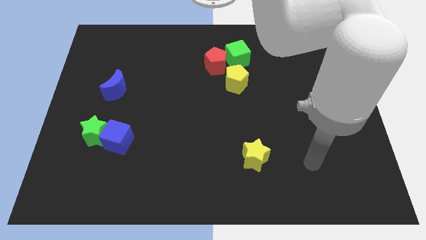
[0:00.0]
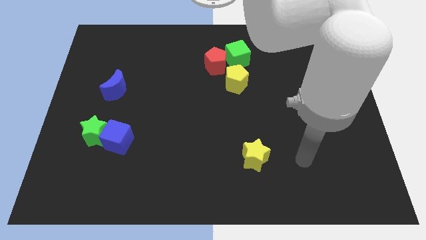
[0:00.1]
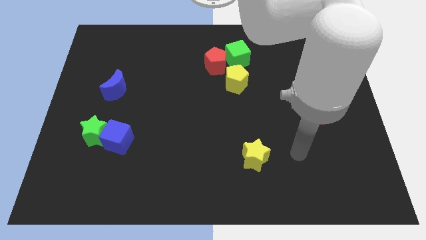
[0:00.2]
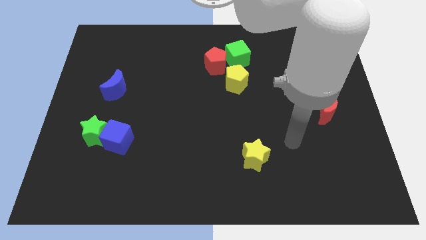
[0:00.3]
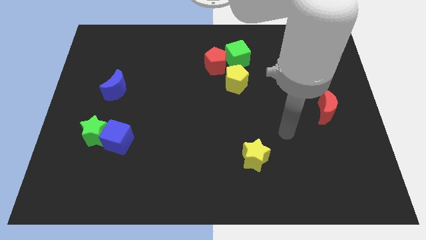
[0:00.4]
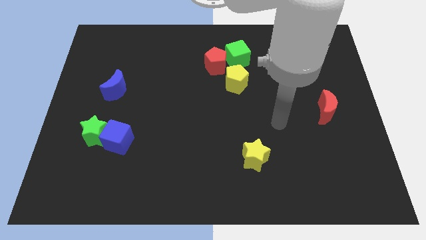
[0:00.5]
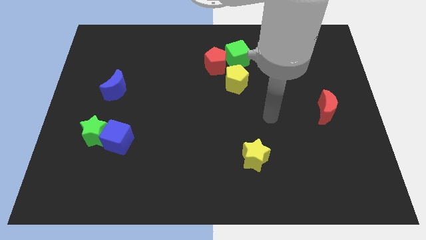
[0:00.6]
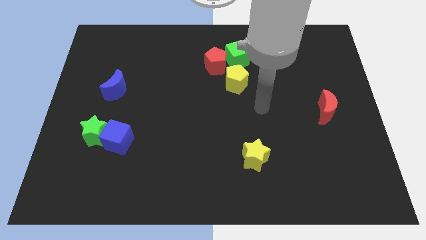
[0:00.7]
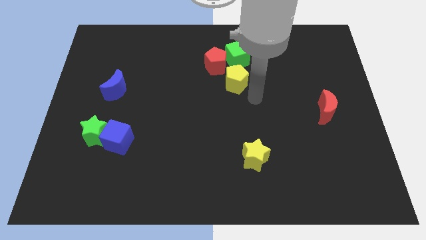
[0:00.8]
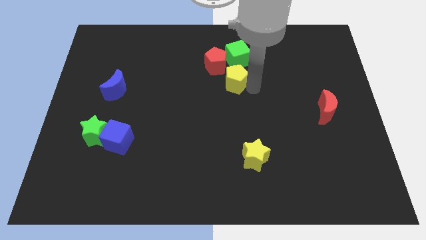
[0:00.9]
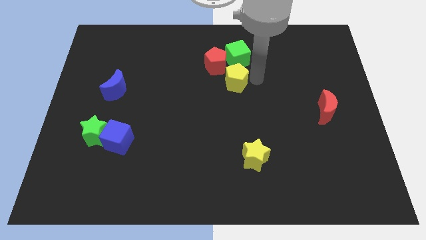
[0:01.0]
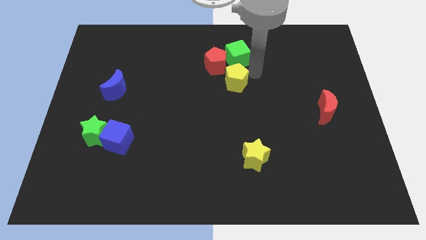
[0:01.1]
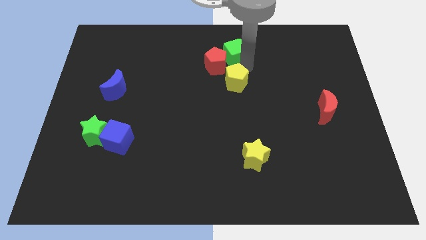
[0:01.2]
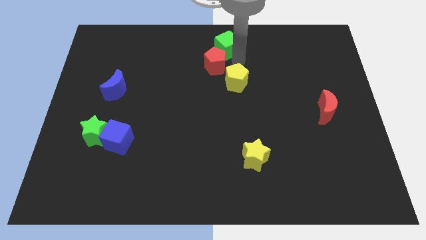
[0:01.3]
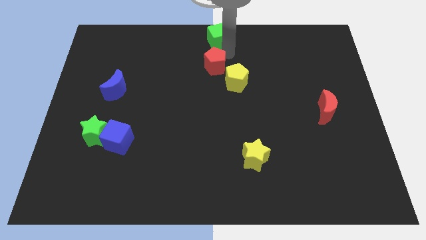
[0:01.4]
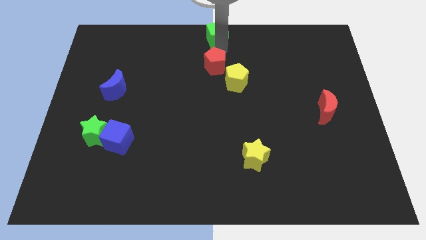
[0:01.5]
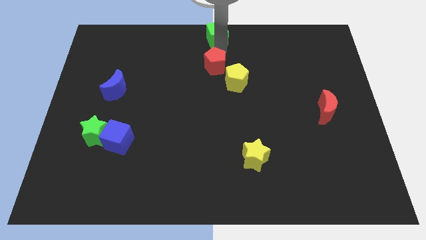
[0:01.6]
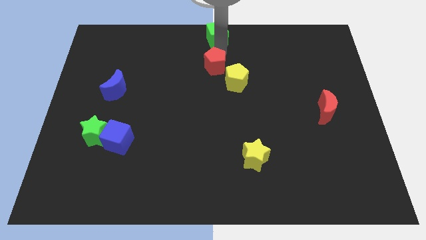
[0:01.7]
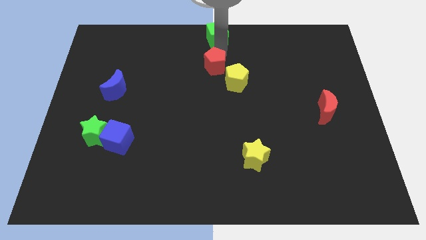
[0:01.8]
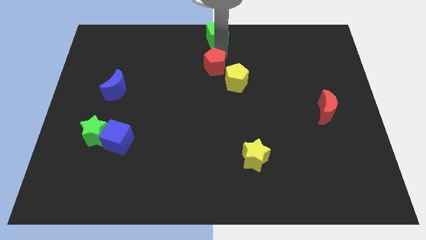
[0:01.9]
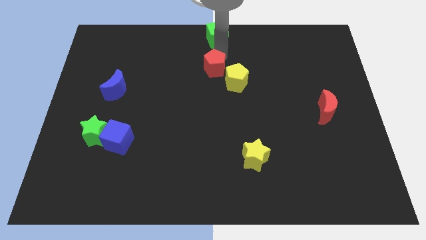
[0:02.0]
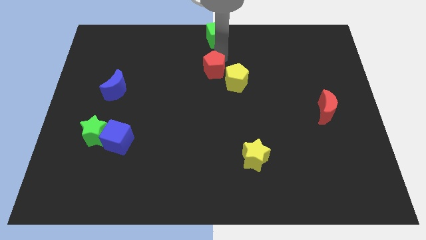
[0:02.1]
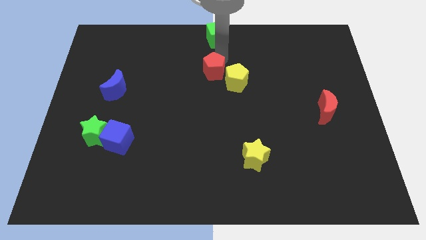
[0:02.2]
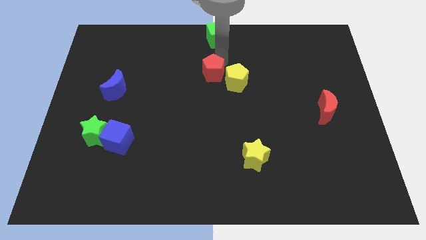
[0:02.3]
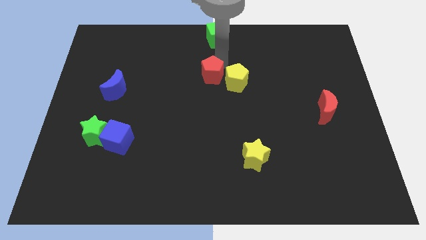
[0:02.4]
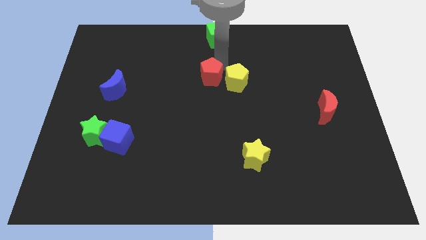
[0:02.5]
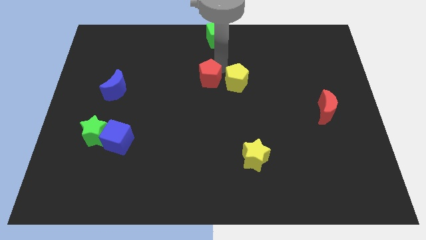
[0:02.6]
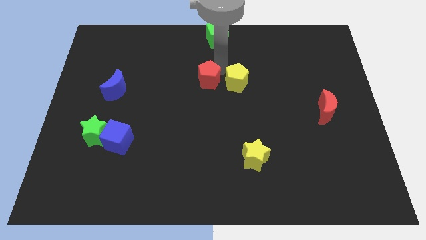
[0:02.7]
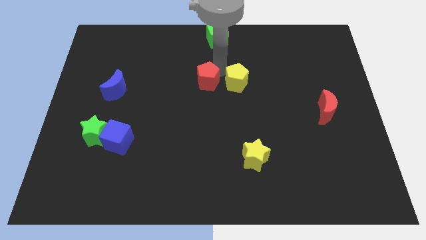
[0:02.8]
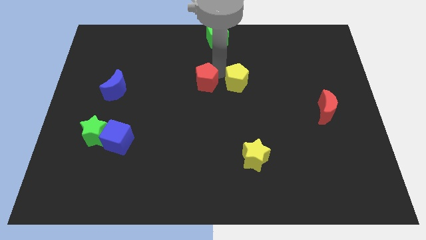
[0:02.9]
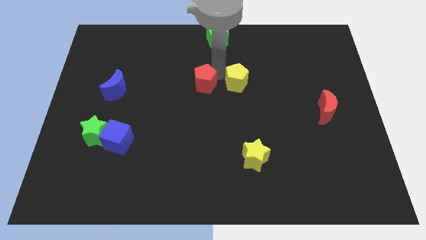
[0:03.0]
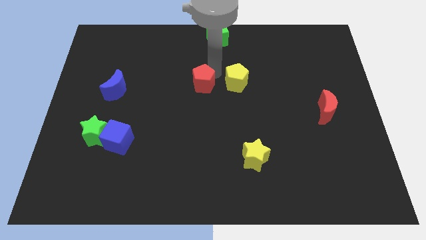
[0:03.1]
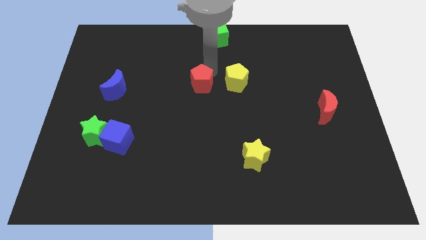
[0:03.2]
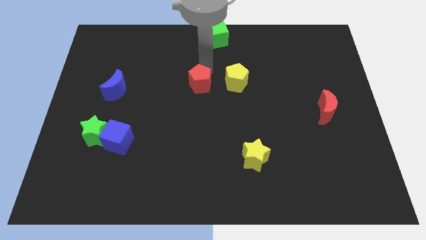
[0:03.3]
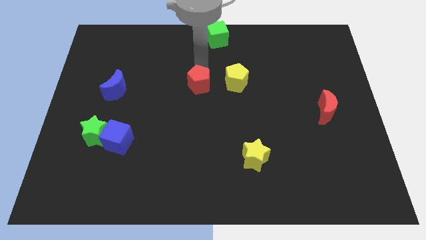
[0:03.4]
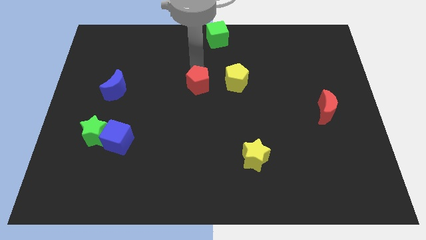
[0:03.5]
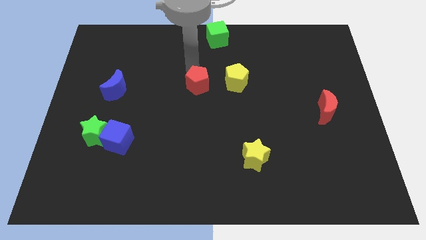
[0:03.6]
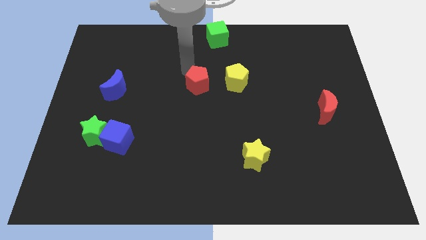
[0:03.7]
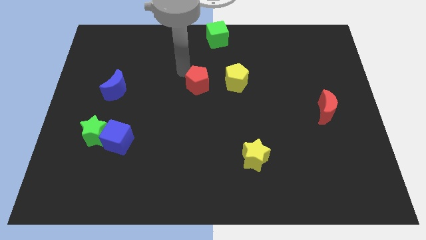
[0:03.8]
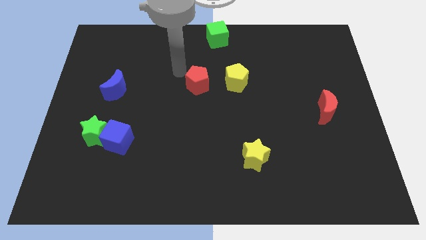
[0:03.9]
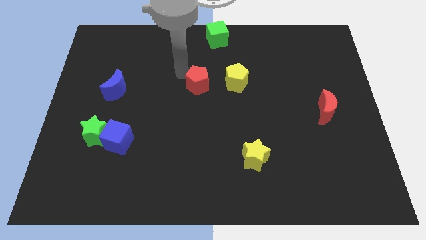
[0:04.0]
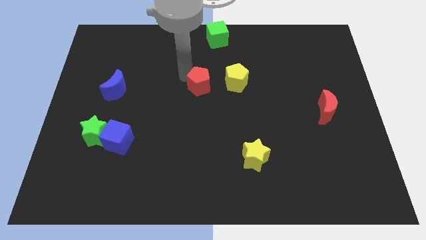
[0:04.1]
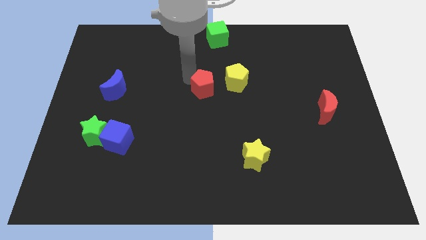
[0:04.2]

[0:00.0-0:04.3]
slide the red pentagon downwards somewhat

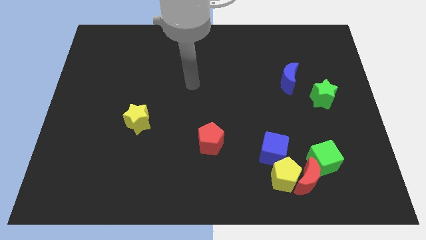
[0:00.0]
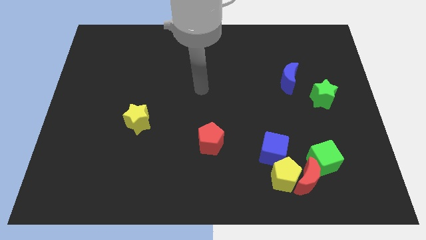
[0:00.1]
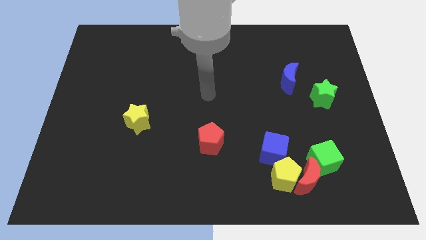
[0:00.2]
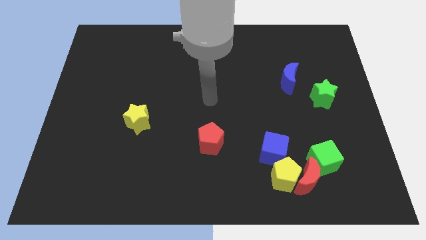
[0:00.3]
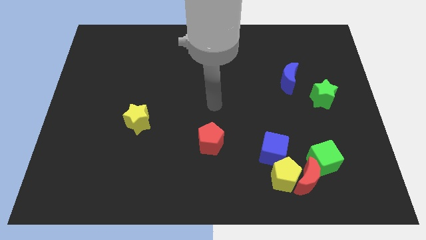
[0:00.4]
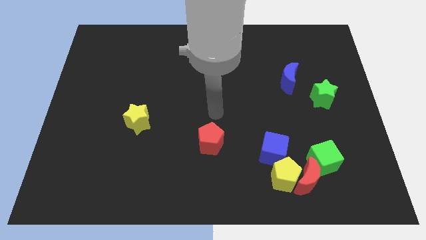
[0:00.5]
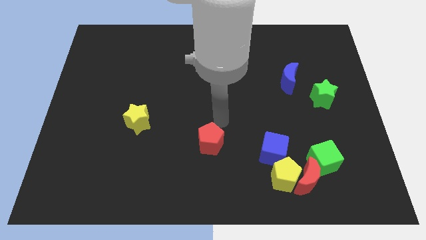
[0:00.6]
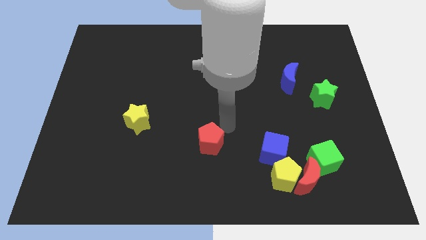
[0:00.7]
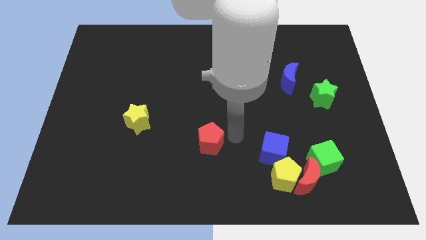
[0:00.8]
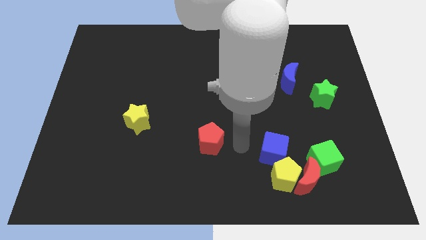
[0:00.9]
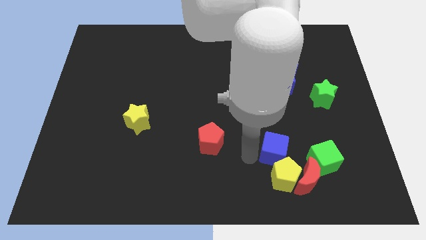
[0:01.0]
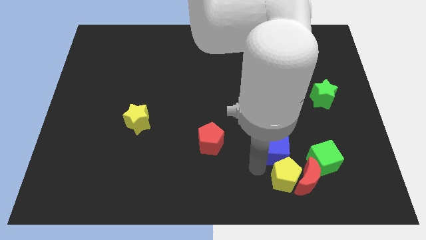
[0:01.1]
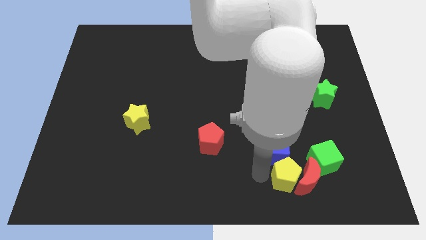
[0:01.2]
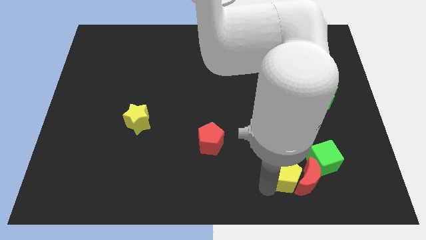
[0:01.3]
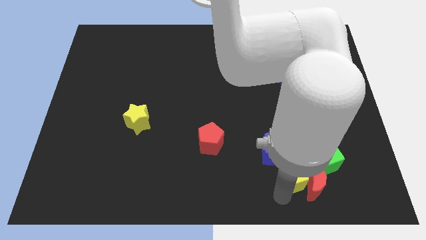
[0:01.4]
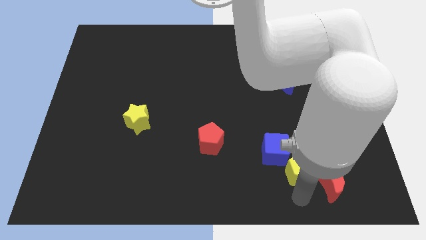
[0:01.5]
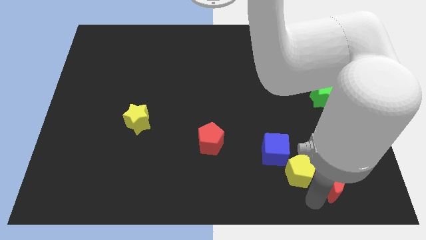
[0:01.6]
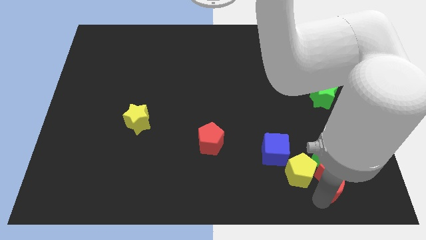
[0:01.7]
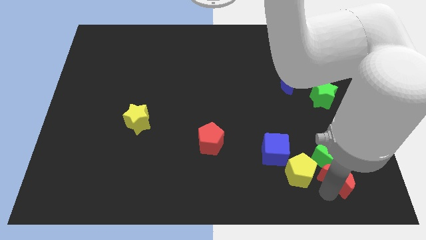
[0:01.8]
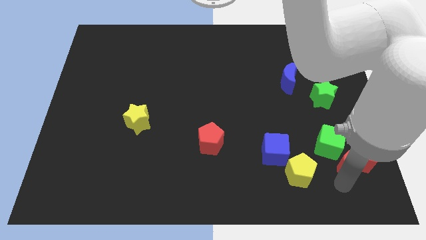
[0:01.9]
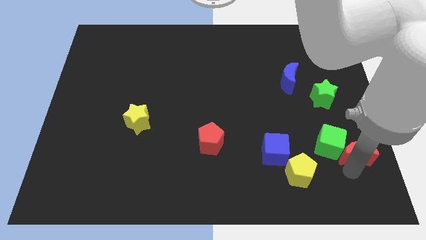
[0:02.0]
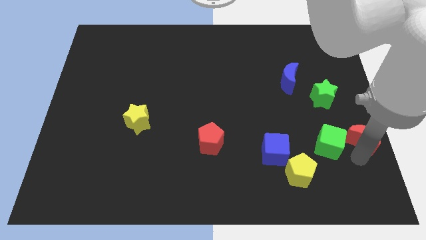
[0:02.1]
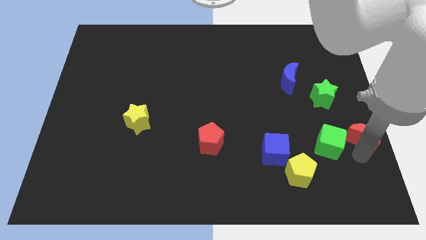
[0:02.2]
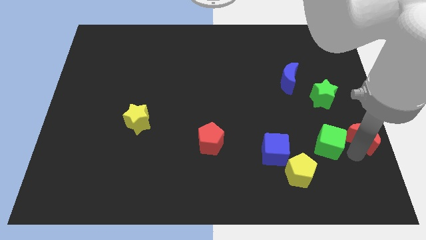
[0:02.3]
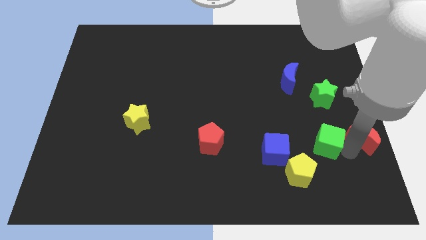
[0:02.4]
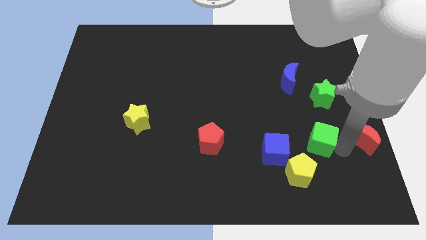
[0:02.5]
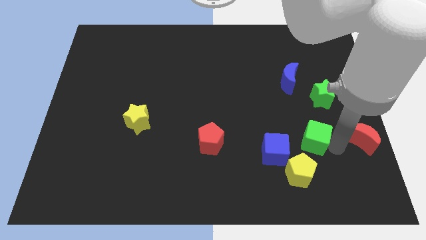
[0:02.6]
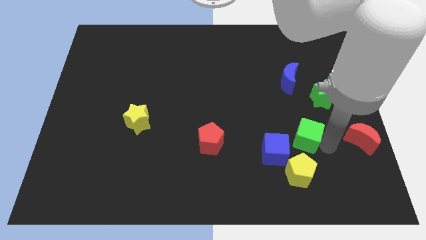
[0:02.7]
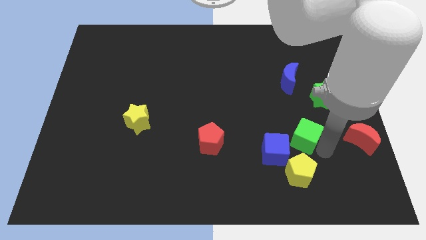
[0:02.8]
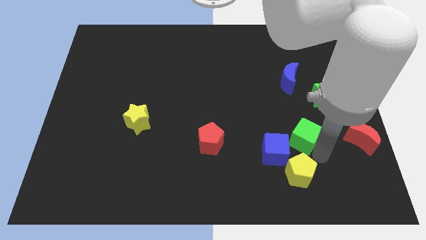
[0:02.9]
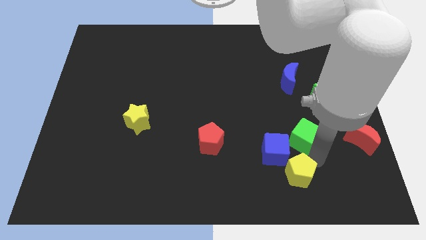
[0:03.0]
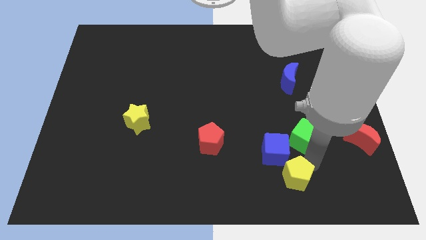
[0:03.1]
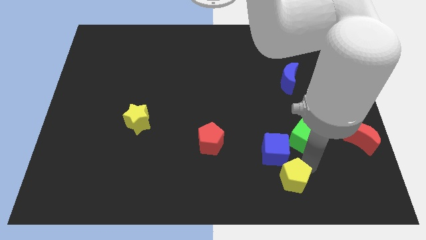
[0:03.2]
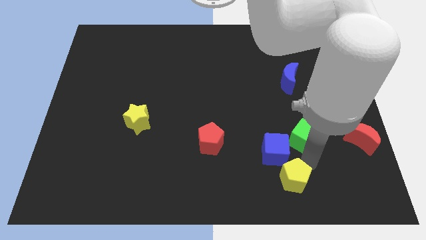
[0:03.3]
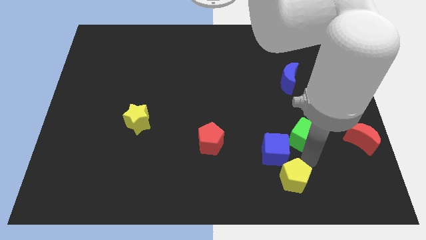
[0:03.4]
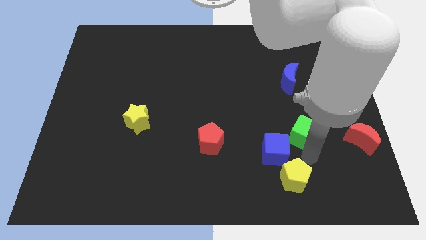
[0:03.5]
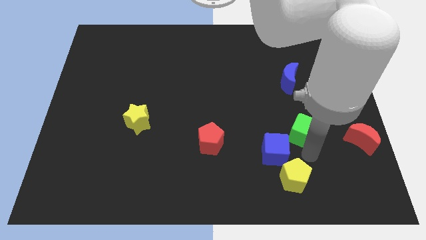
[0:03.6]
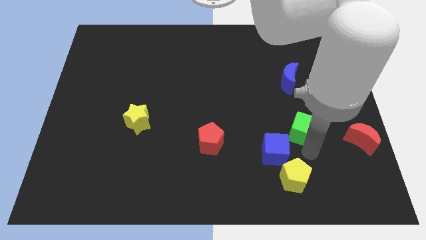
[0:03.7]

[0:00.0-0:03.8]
slightly slide the green cube up
